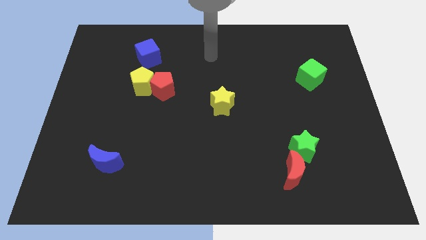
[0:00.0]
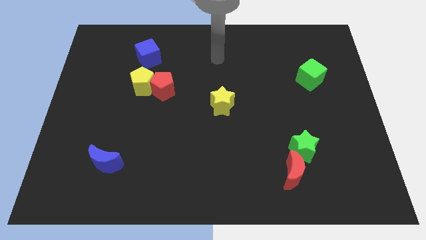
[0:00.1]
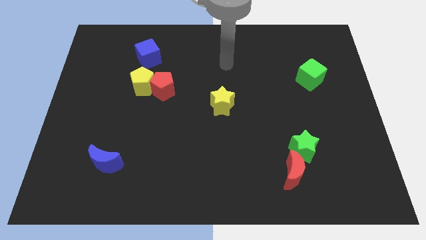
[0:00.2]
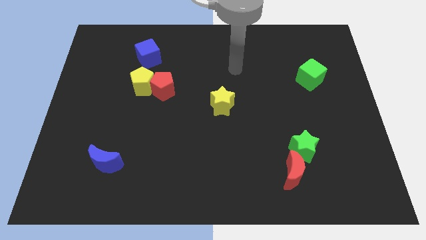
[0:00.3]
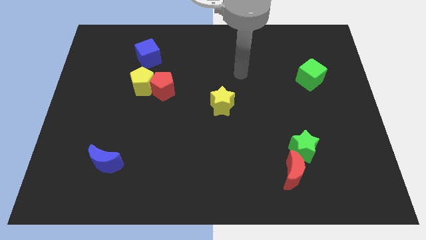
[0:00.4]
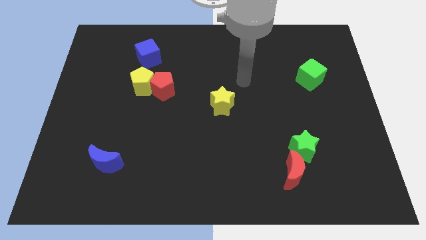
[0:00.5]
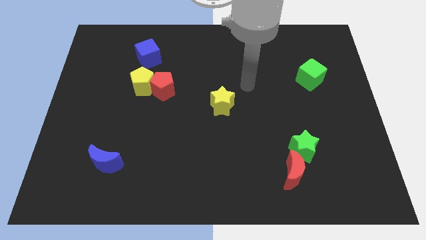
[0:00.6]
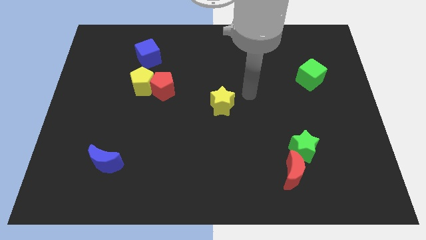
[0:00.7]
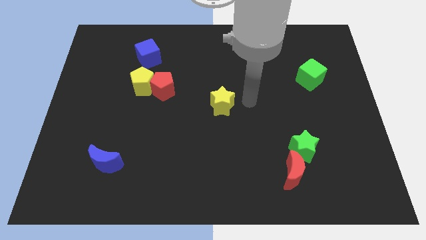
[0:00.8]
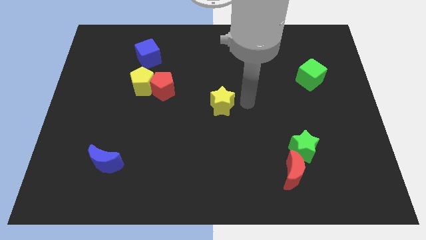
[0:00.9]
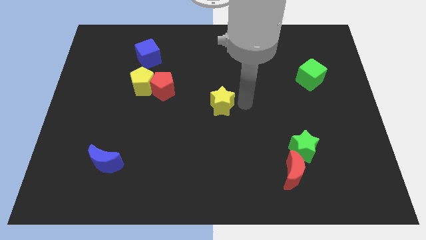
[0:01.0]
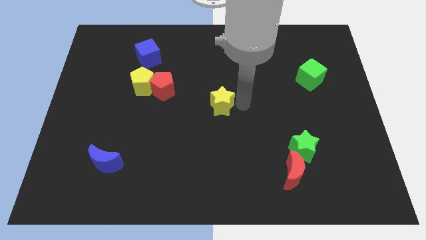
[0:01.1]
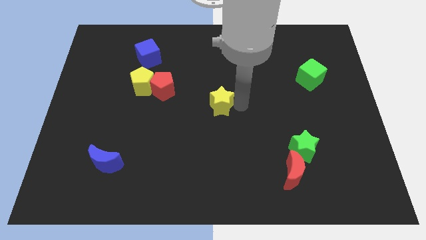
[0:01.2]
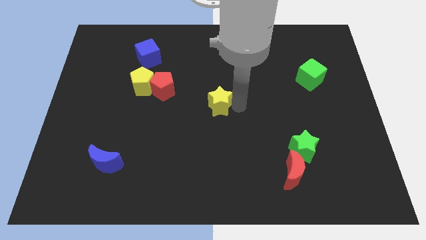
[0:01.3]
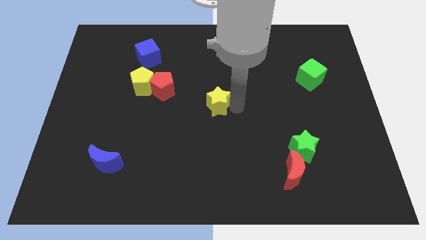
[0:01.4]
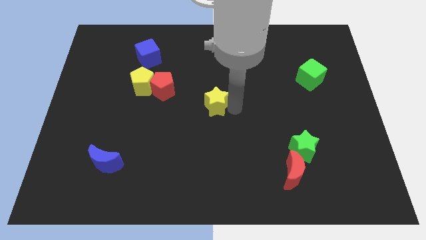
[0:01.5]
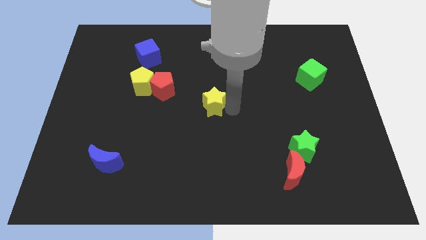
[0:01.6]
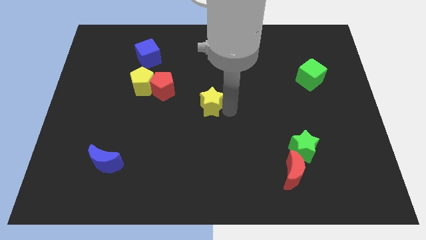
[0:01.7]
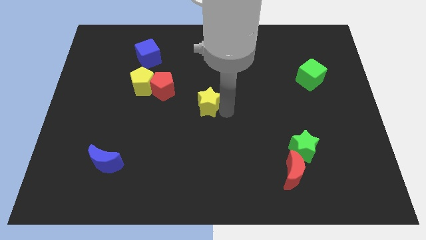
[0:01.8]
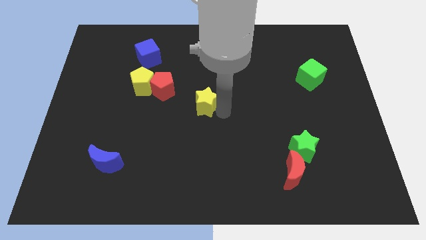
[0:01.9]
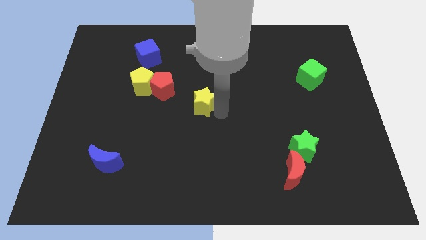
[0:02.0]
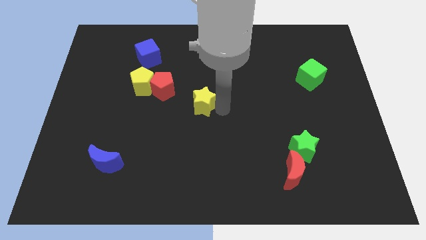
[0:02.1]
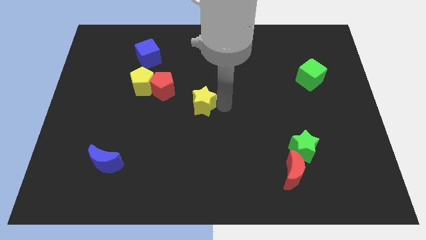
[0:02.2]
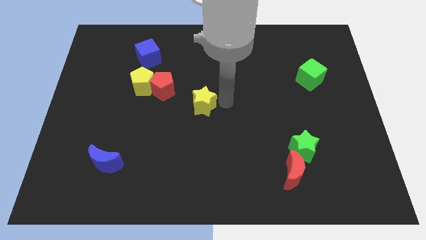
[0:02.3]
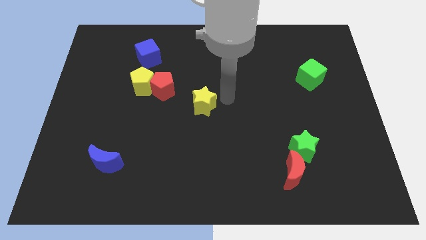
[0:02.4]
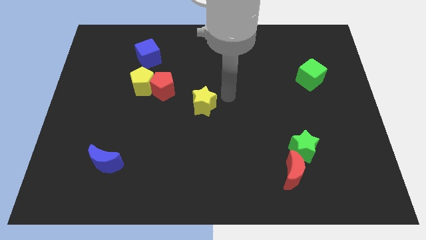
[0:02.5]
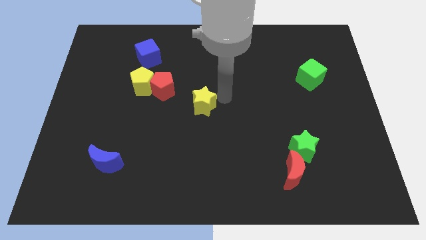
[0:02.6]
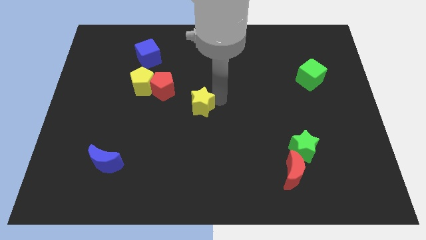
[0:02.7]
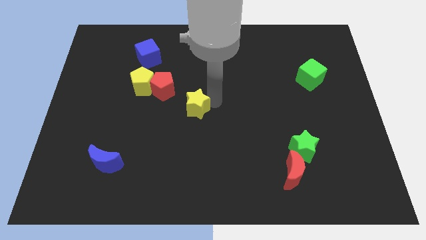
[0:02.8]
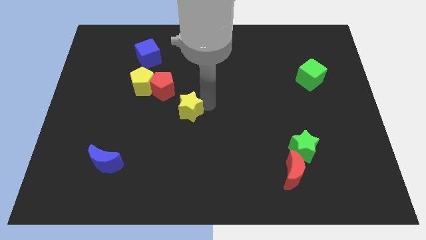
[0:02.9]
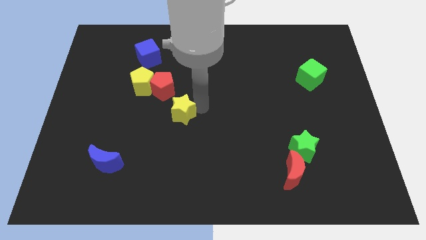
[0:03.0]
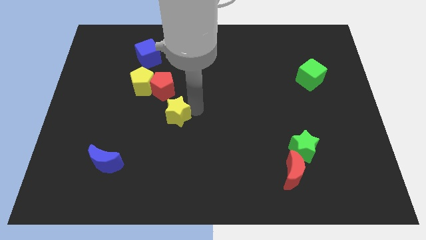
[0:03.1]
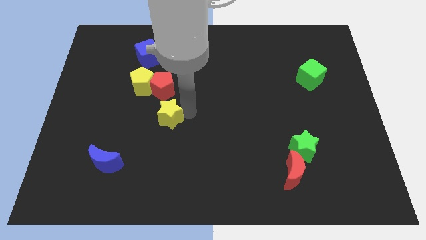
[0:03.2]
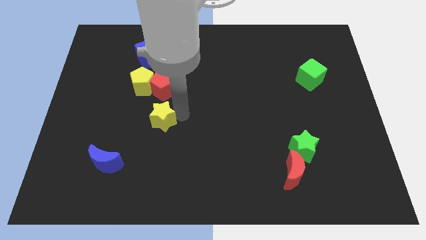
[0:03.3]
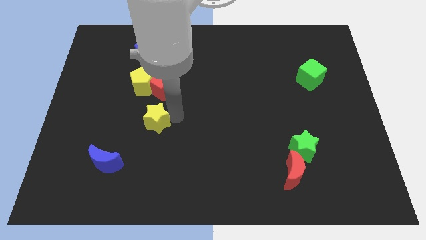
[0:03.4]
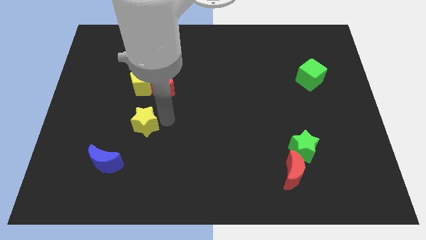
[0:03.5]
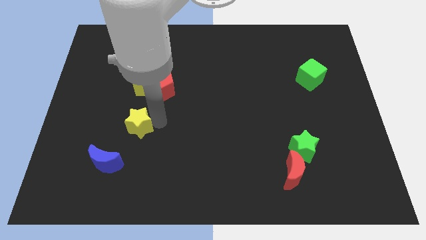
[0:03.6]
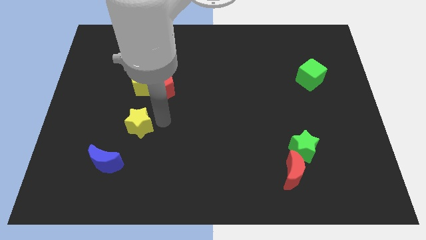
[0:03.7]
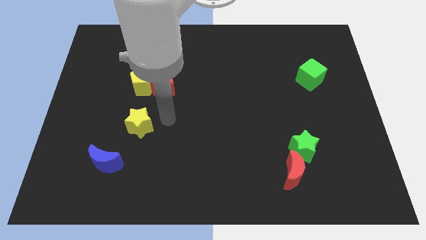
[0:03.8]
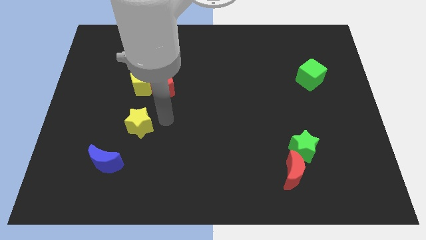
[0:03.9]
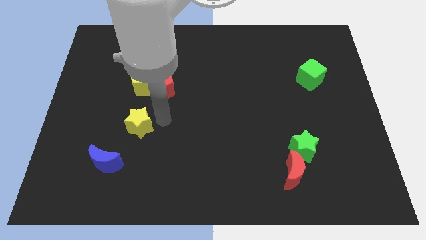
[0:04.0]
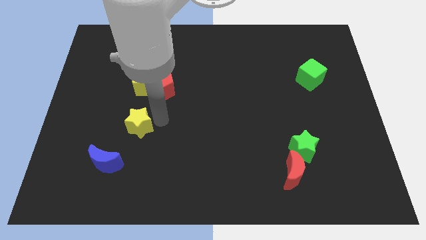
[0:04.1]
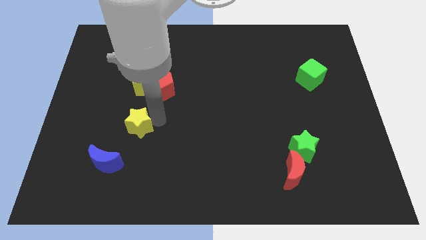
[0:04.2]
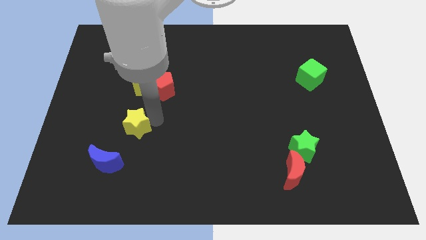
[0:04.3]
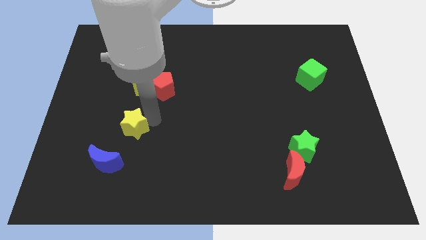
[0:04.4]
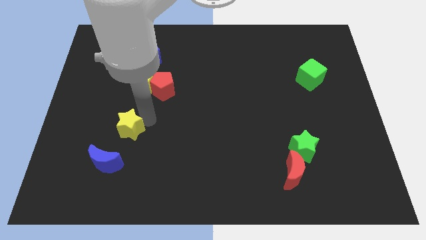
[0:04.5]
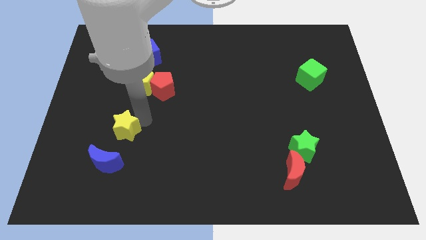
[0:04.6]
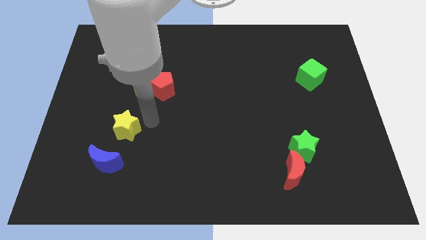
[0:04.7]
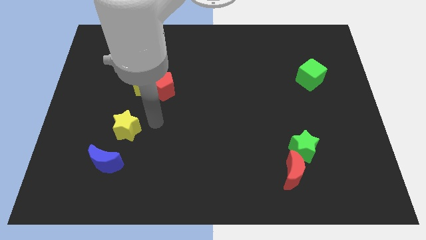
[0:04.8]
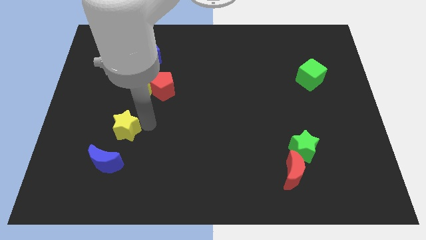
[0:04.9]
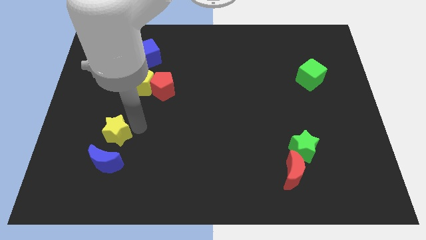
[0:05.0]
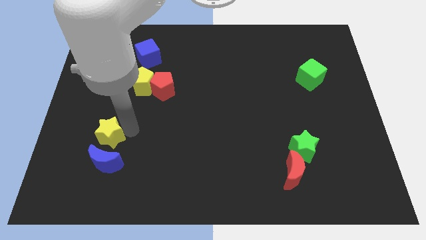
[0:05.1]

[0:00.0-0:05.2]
slide the yellow star to the top left of the blue moon

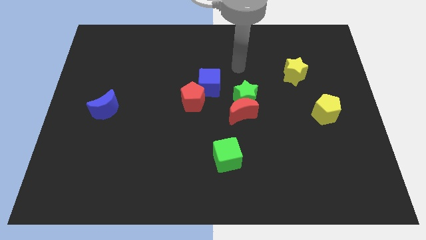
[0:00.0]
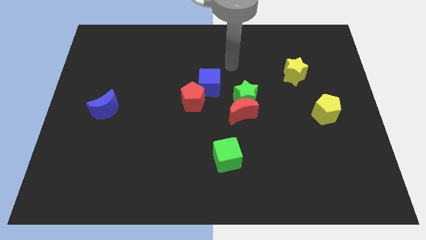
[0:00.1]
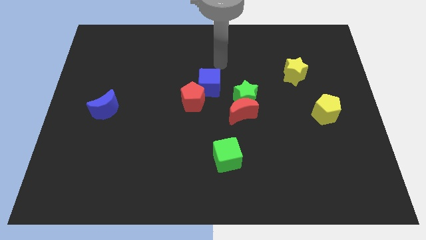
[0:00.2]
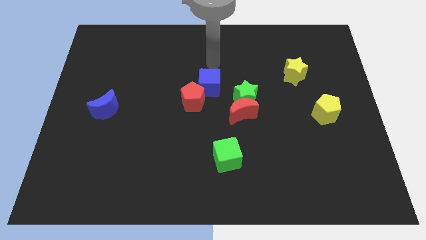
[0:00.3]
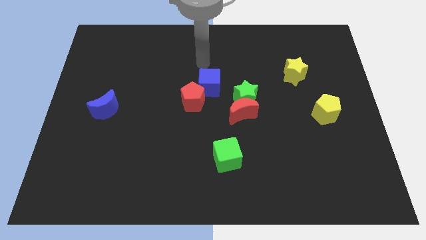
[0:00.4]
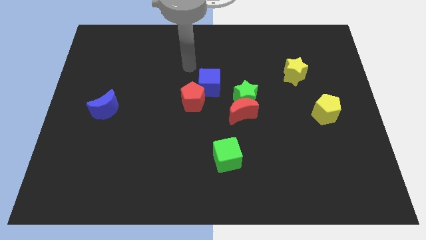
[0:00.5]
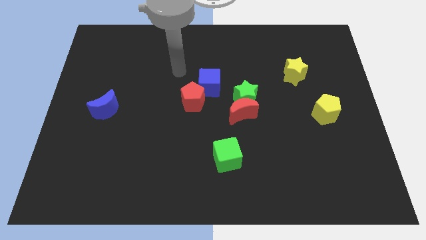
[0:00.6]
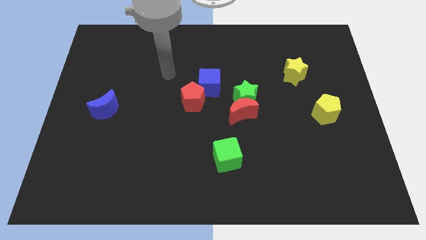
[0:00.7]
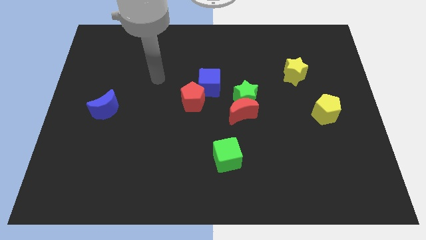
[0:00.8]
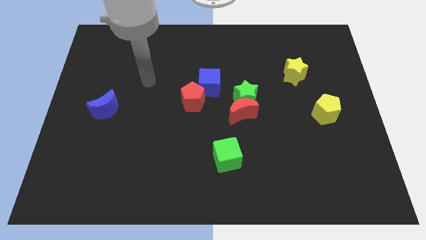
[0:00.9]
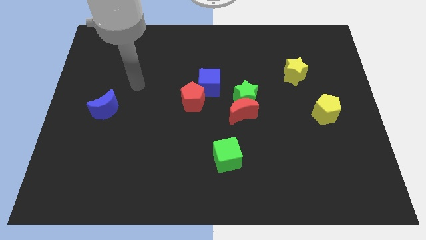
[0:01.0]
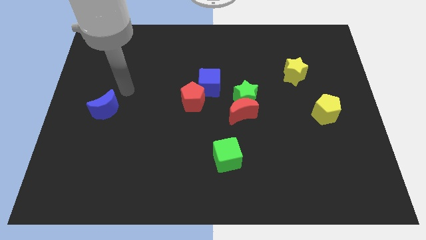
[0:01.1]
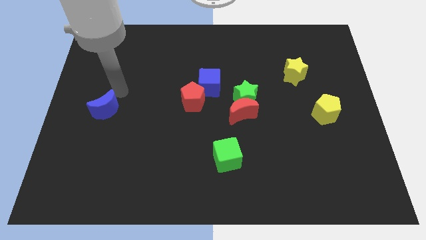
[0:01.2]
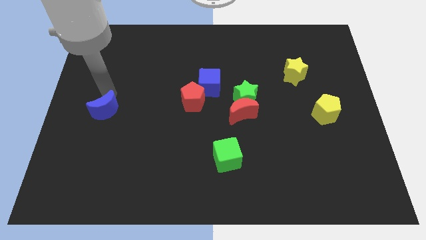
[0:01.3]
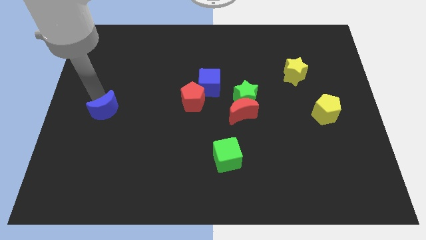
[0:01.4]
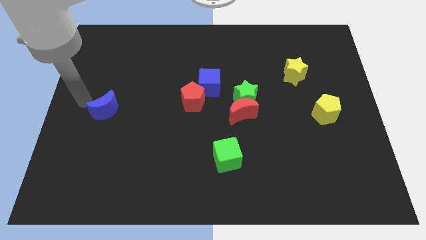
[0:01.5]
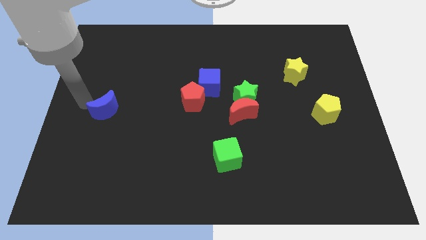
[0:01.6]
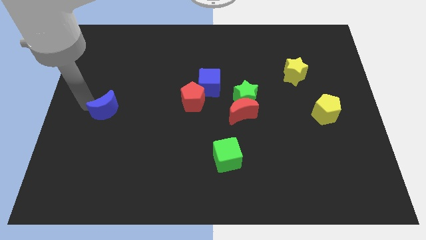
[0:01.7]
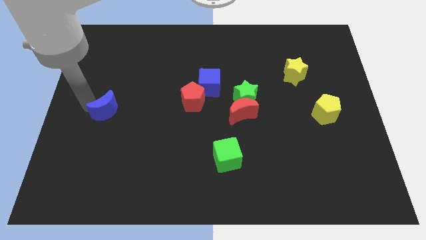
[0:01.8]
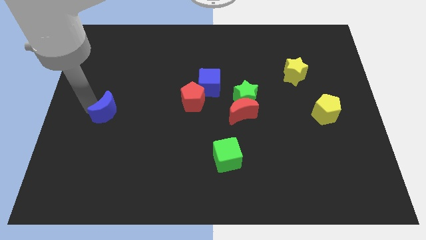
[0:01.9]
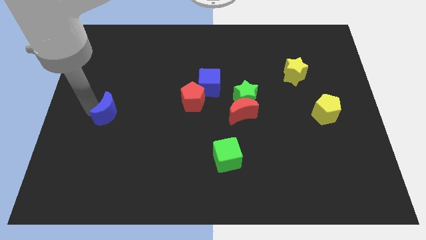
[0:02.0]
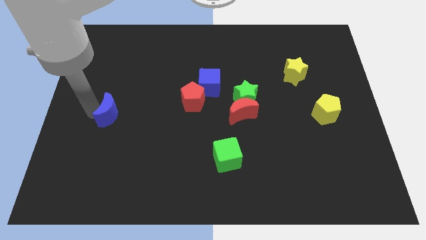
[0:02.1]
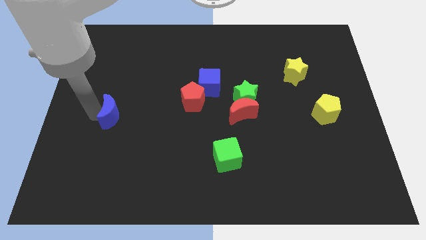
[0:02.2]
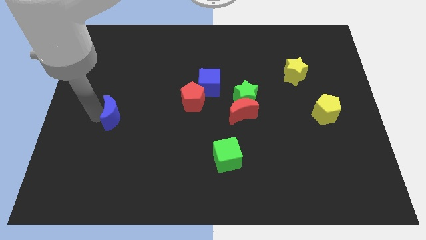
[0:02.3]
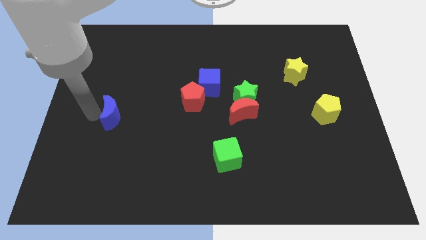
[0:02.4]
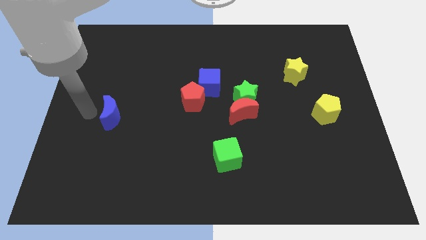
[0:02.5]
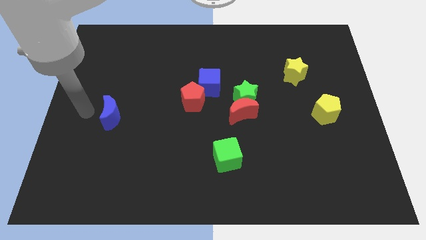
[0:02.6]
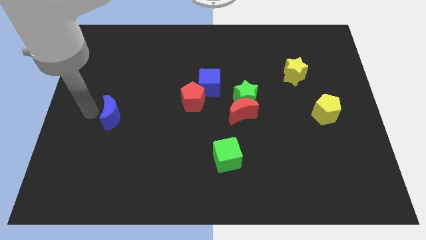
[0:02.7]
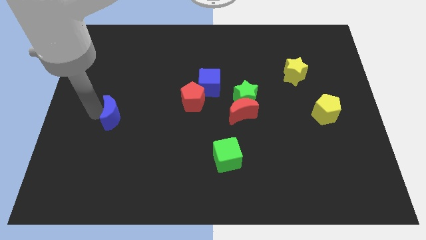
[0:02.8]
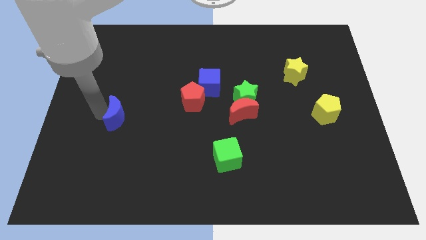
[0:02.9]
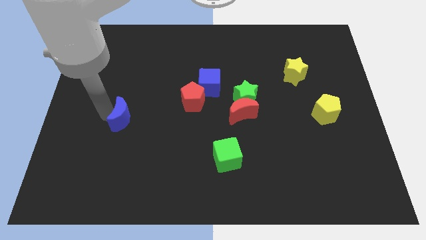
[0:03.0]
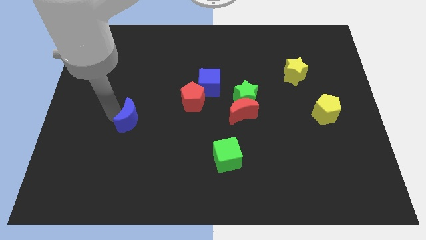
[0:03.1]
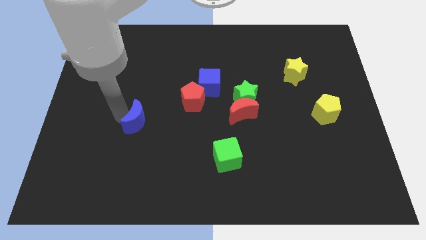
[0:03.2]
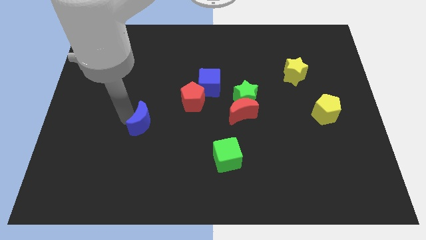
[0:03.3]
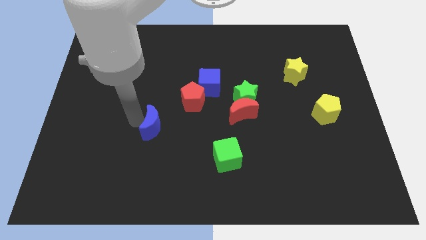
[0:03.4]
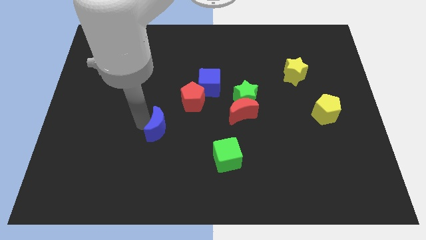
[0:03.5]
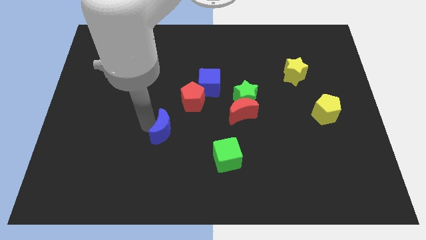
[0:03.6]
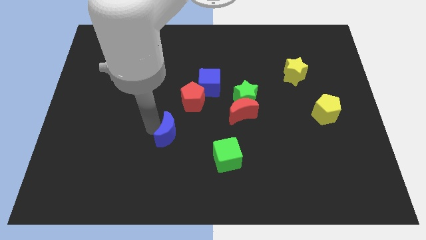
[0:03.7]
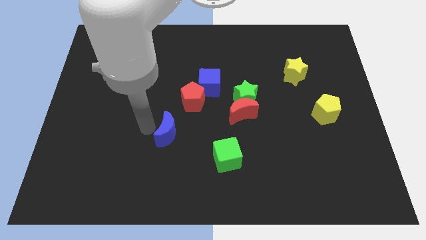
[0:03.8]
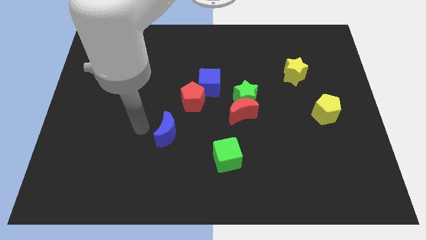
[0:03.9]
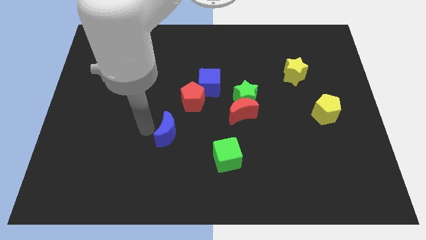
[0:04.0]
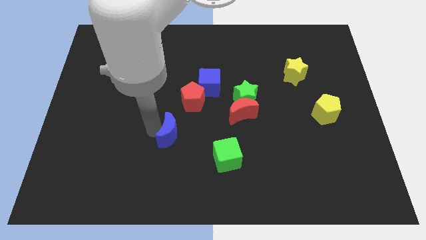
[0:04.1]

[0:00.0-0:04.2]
push the blue moon to the bottom of the red pentagon
